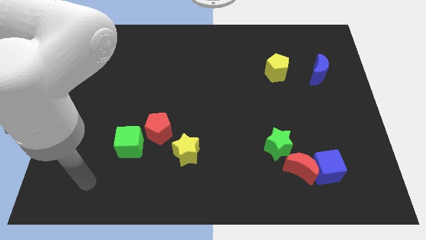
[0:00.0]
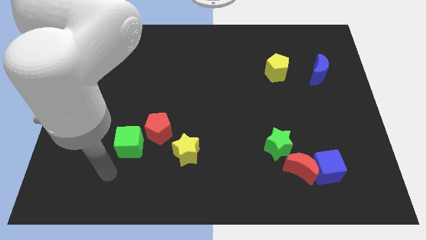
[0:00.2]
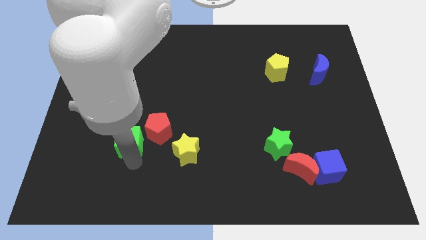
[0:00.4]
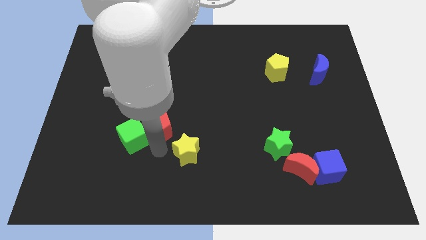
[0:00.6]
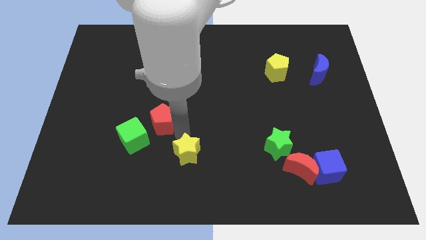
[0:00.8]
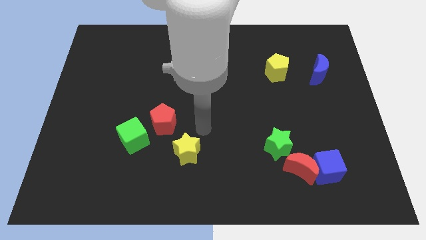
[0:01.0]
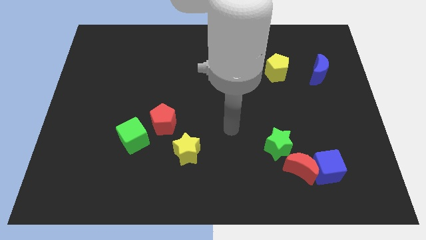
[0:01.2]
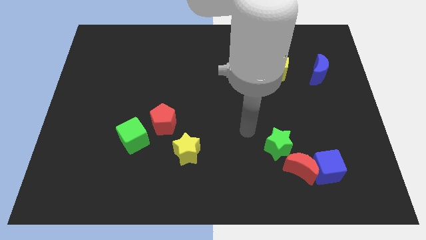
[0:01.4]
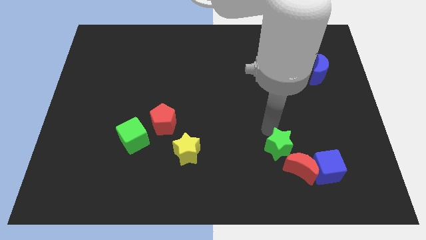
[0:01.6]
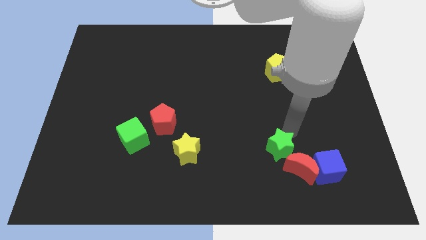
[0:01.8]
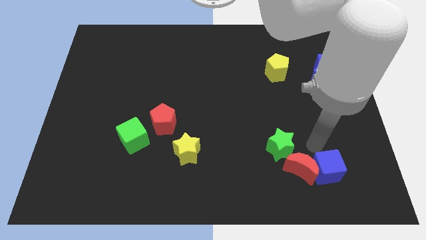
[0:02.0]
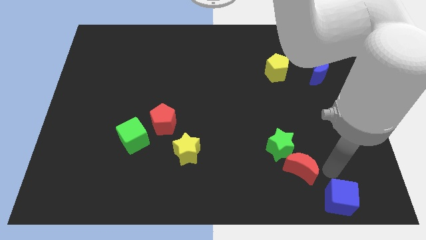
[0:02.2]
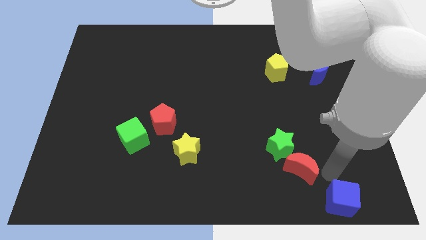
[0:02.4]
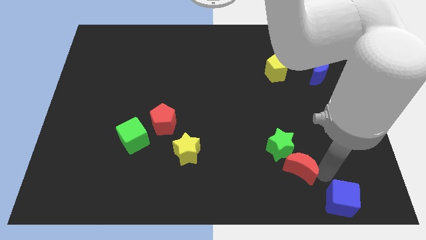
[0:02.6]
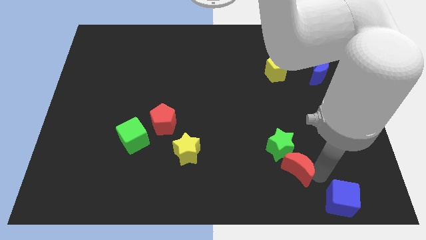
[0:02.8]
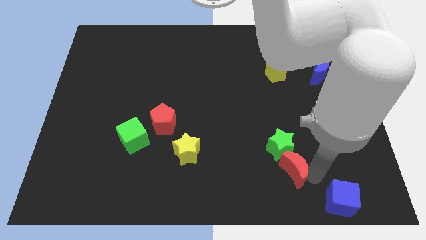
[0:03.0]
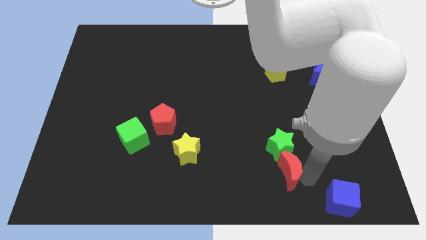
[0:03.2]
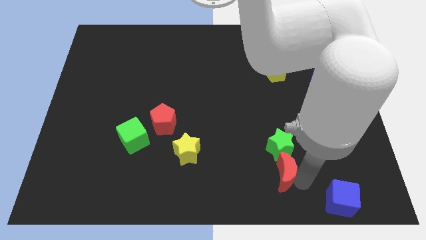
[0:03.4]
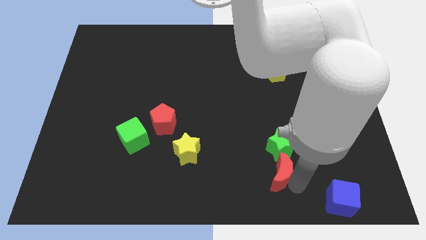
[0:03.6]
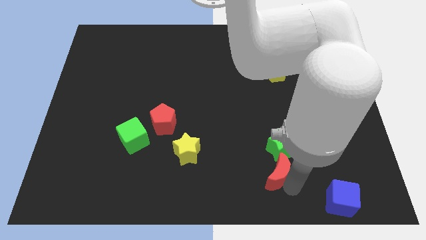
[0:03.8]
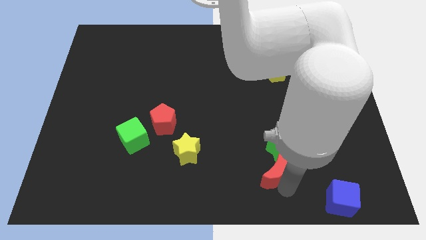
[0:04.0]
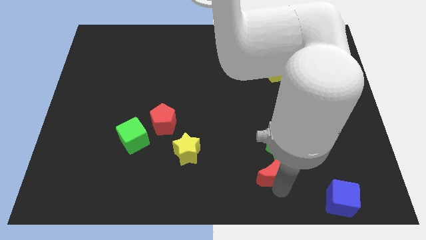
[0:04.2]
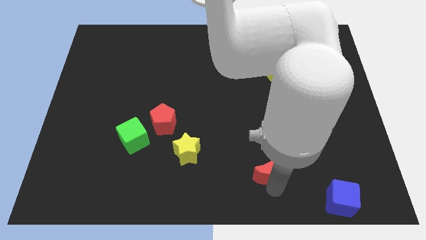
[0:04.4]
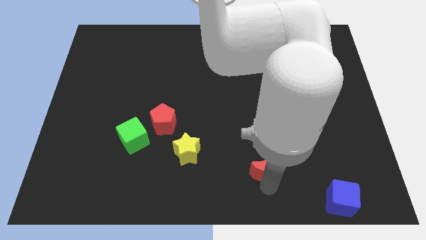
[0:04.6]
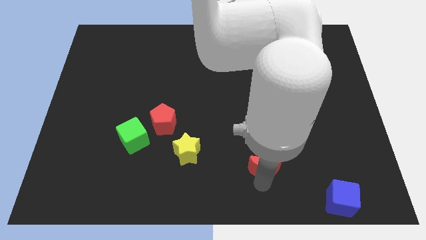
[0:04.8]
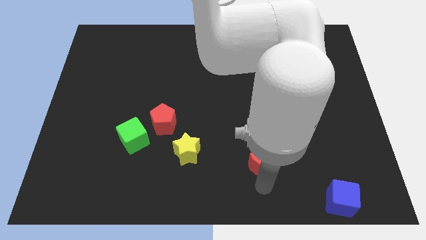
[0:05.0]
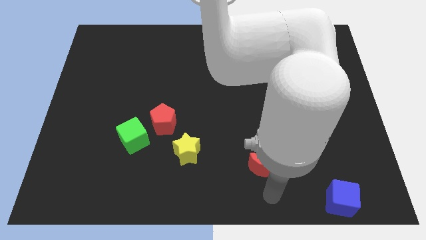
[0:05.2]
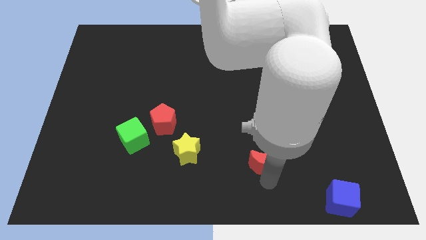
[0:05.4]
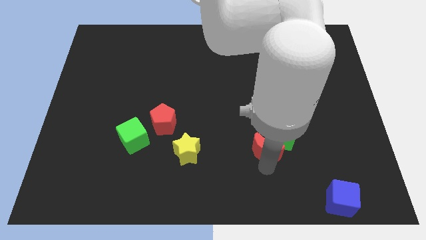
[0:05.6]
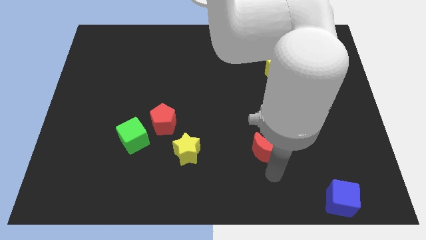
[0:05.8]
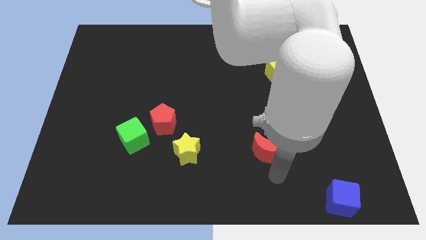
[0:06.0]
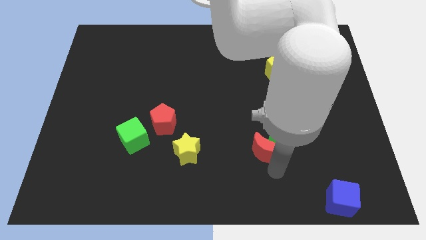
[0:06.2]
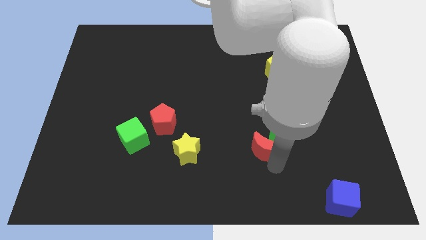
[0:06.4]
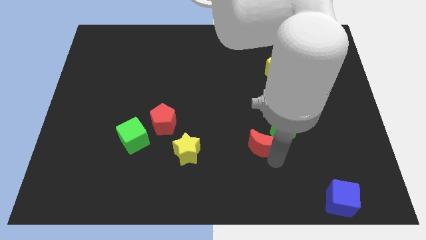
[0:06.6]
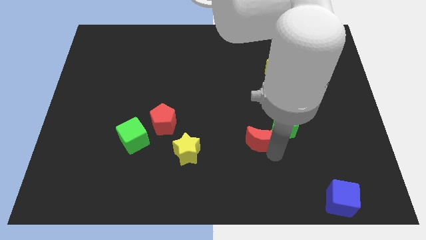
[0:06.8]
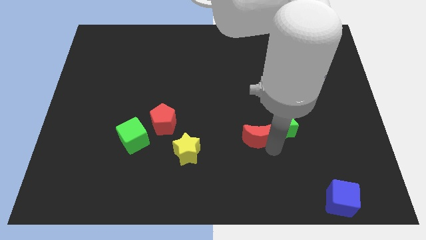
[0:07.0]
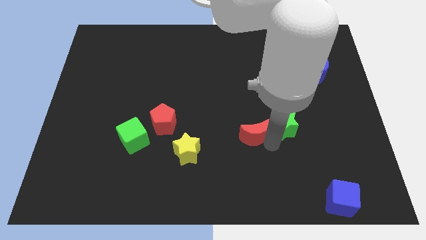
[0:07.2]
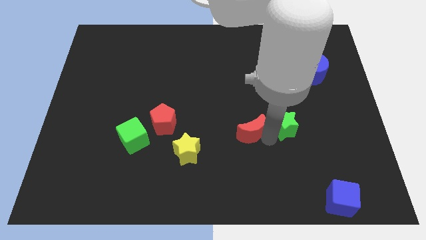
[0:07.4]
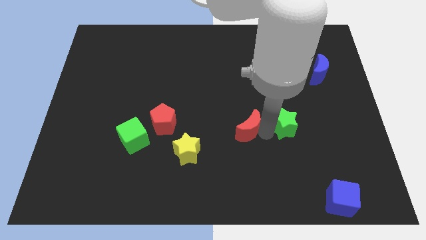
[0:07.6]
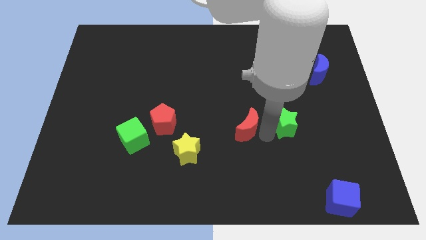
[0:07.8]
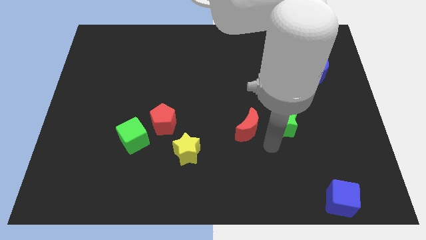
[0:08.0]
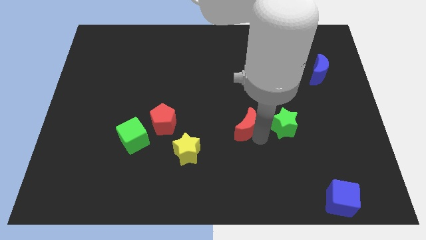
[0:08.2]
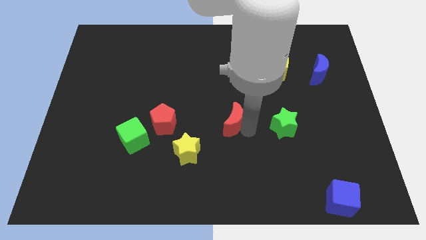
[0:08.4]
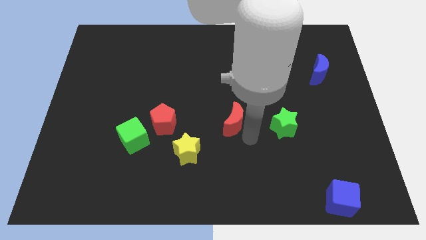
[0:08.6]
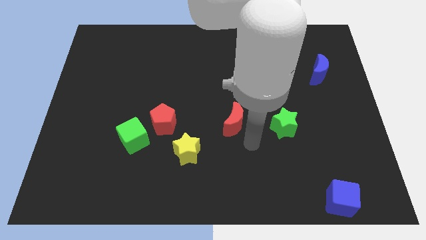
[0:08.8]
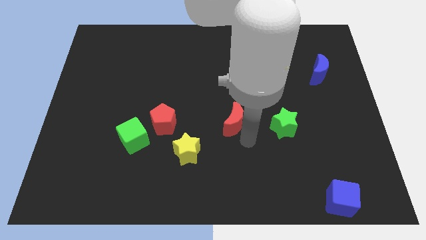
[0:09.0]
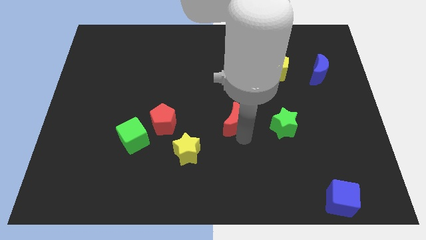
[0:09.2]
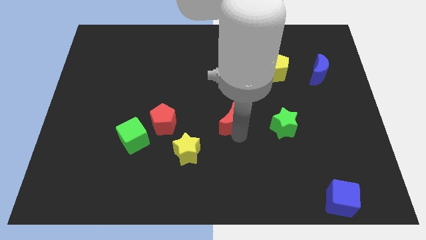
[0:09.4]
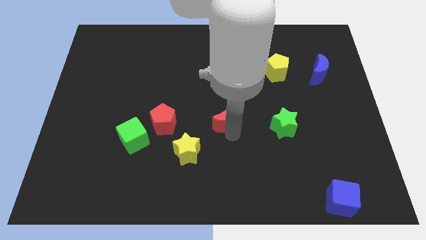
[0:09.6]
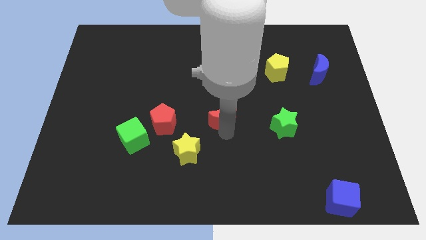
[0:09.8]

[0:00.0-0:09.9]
push the red moon up and left

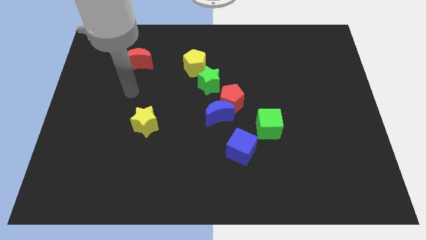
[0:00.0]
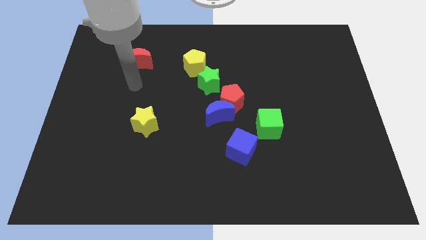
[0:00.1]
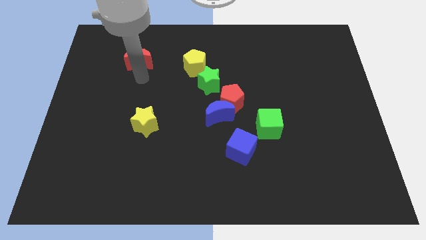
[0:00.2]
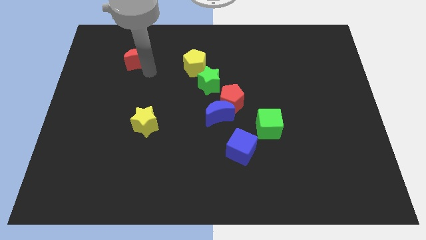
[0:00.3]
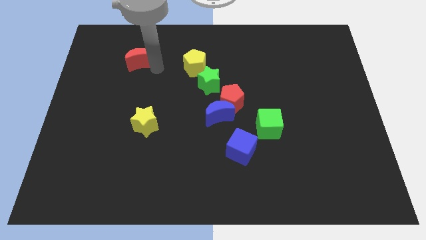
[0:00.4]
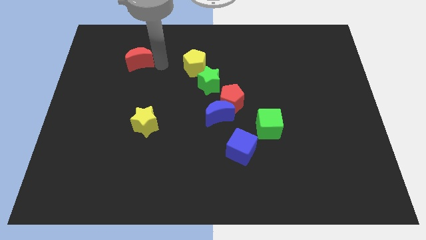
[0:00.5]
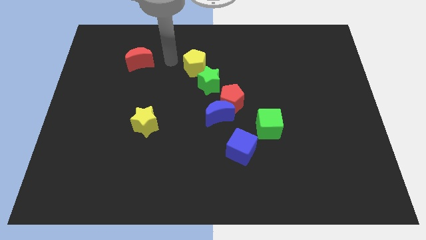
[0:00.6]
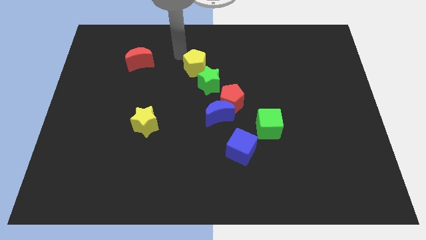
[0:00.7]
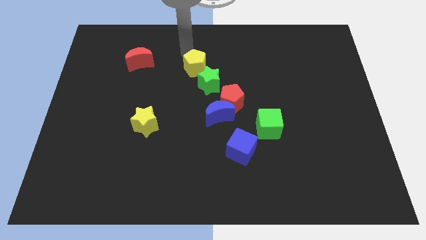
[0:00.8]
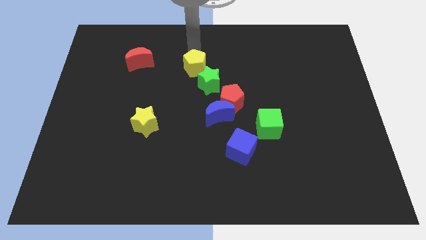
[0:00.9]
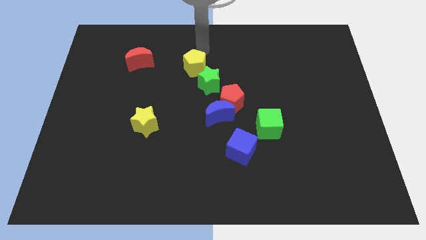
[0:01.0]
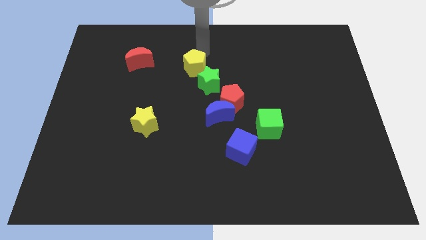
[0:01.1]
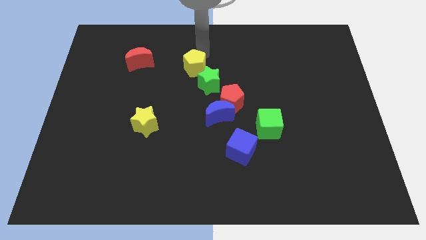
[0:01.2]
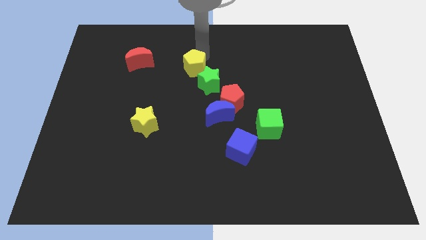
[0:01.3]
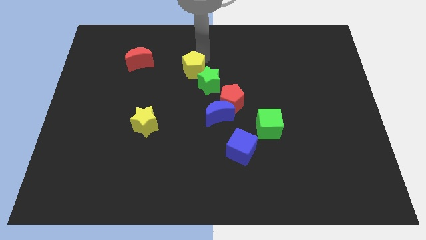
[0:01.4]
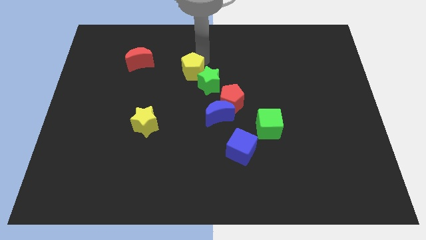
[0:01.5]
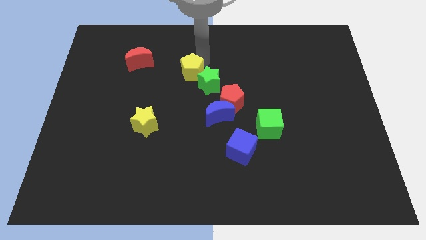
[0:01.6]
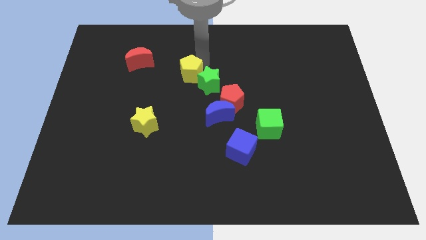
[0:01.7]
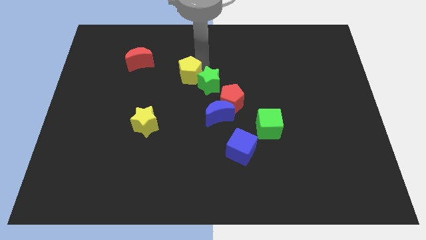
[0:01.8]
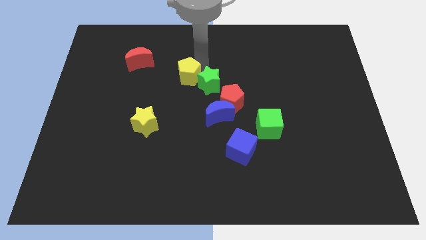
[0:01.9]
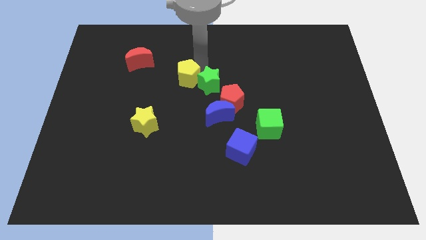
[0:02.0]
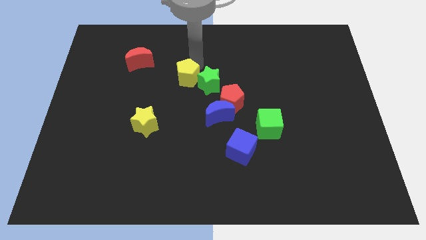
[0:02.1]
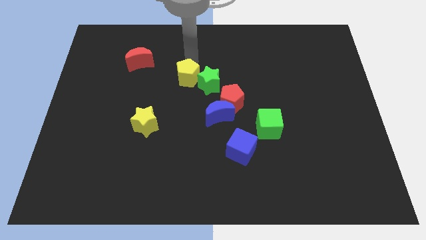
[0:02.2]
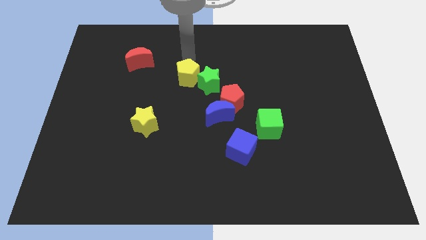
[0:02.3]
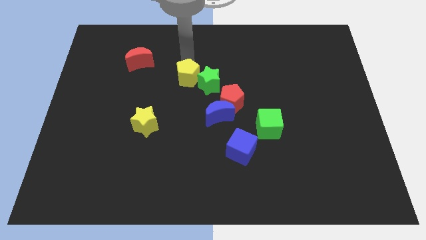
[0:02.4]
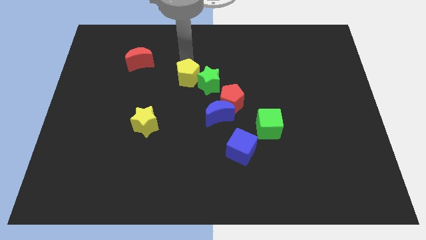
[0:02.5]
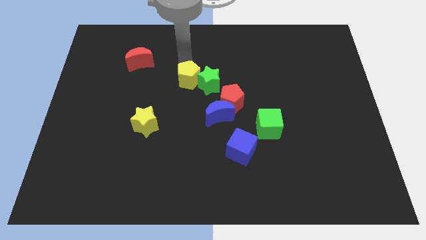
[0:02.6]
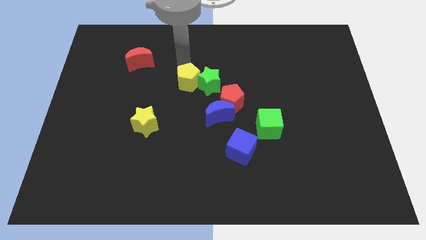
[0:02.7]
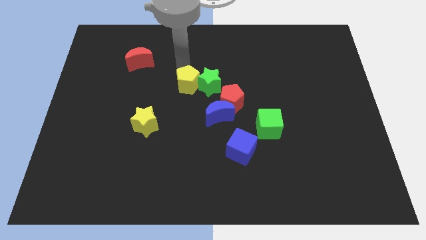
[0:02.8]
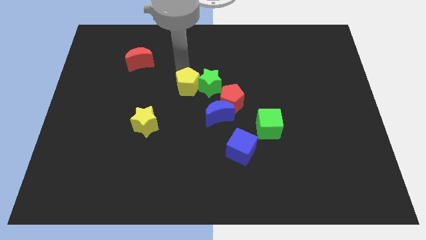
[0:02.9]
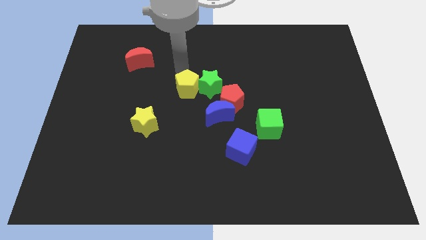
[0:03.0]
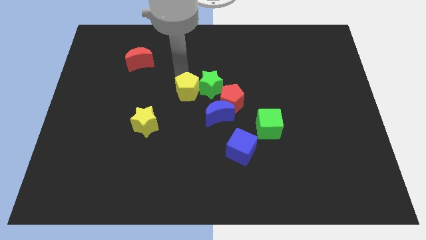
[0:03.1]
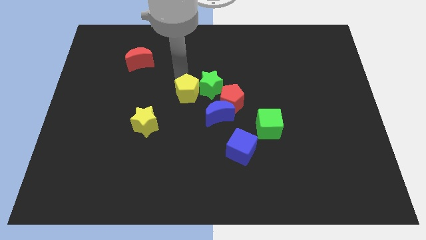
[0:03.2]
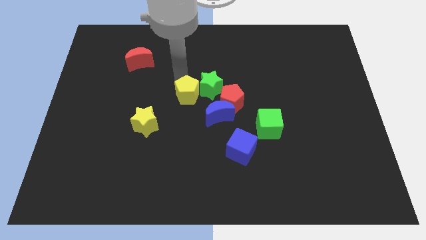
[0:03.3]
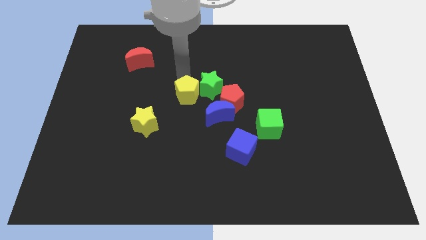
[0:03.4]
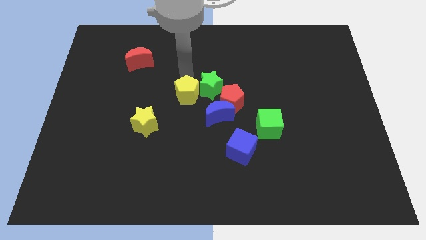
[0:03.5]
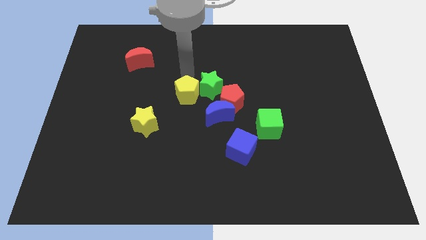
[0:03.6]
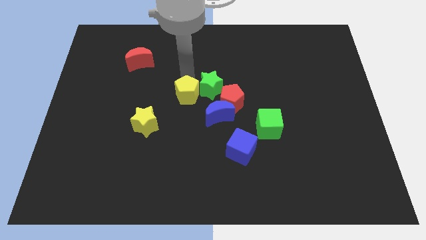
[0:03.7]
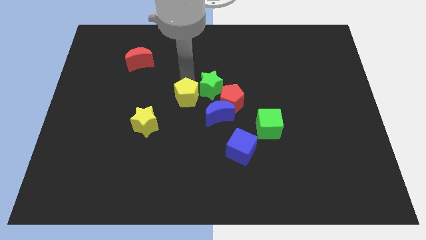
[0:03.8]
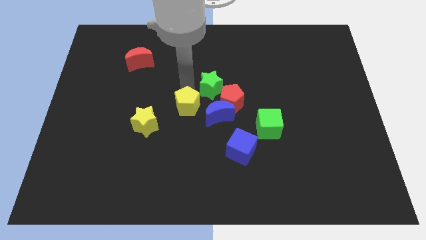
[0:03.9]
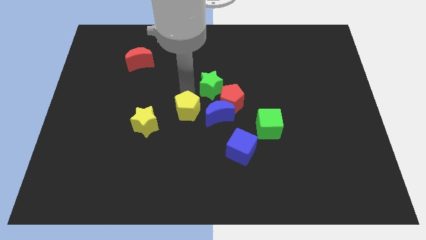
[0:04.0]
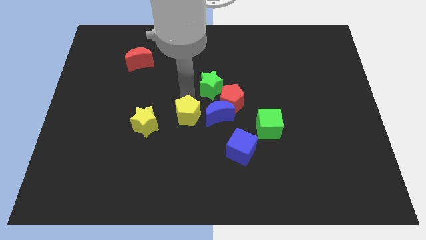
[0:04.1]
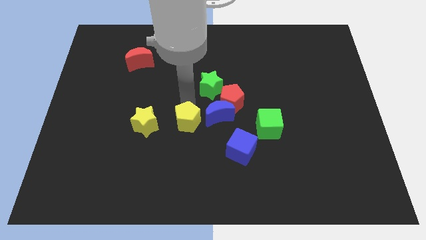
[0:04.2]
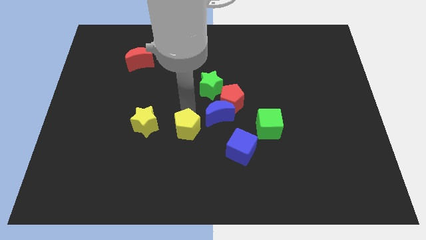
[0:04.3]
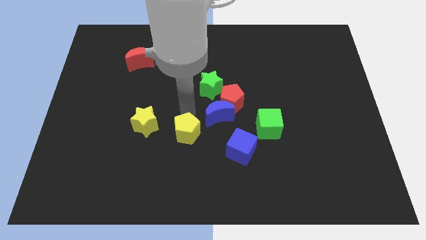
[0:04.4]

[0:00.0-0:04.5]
move the yellow pentagon downwards
